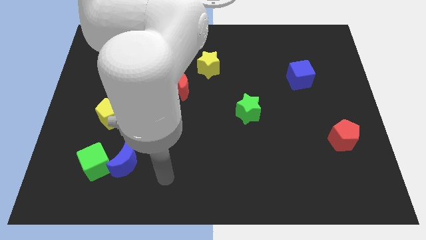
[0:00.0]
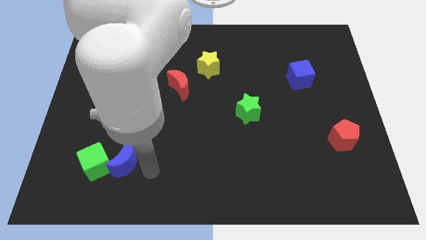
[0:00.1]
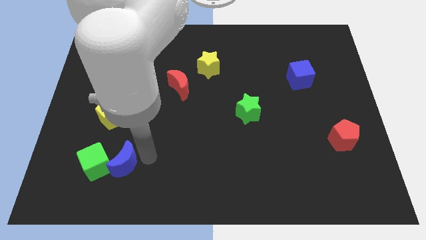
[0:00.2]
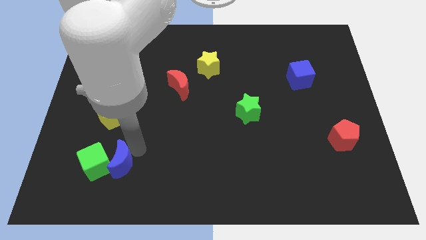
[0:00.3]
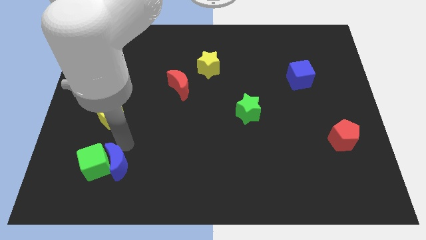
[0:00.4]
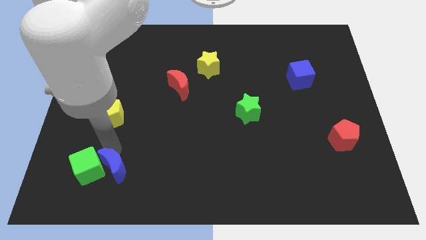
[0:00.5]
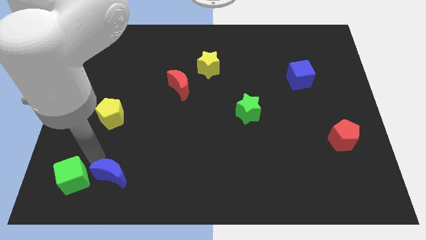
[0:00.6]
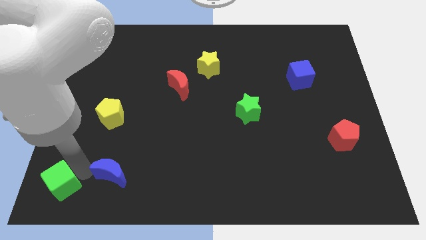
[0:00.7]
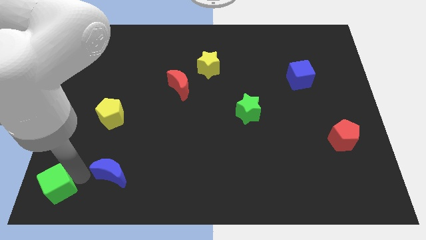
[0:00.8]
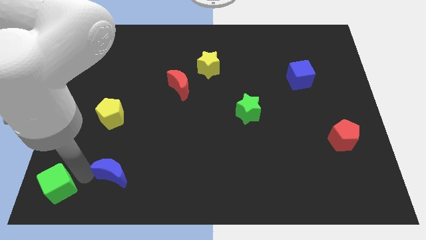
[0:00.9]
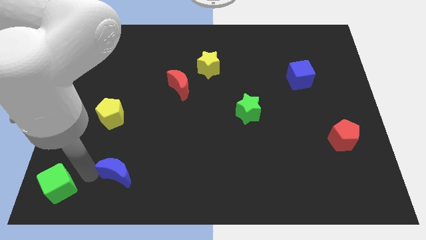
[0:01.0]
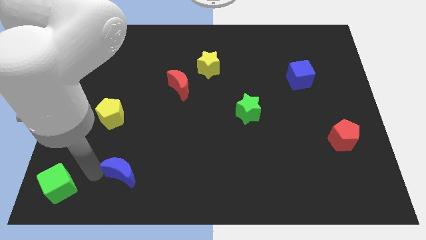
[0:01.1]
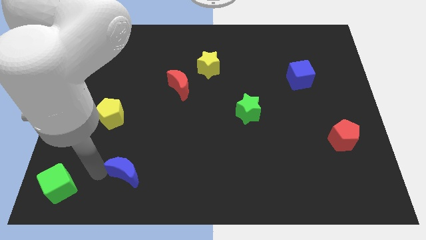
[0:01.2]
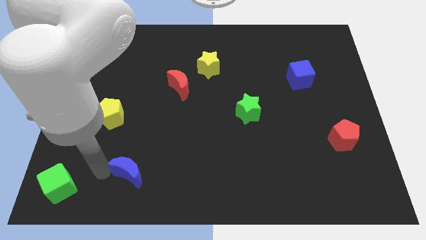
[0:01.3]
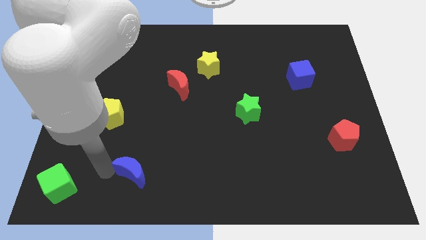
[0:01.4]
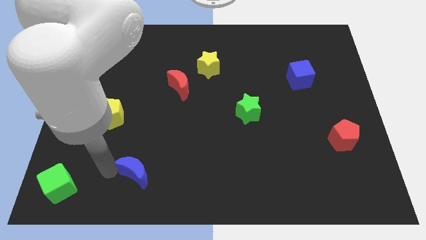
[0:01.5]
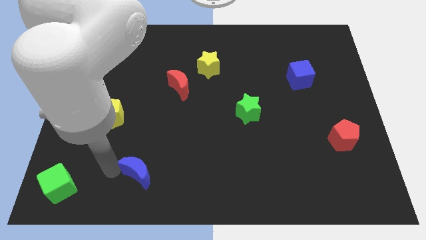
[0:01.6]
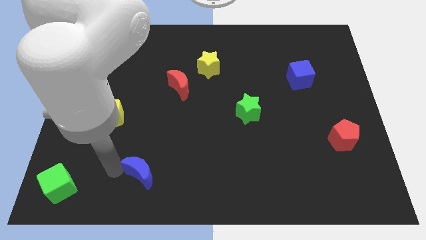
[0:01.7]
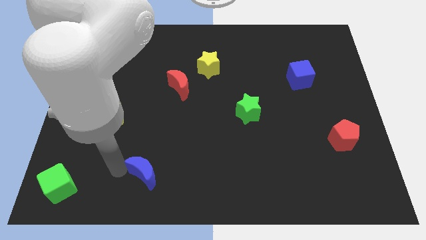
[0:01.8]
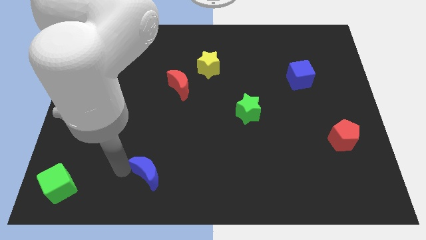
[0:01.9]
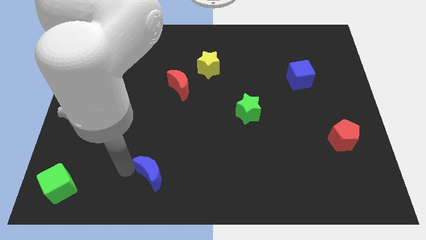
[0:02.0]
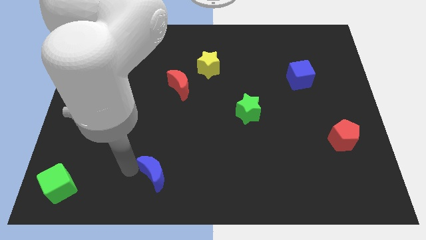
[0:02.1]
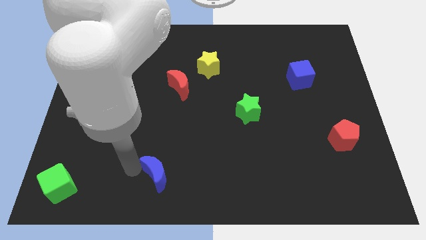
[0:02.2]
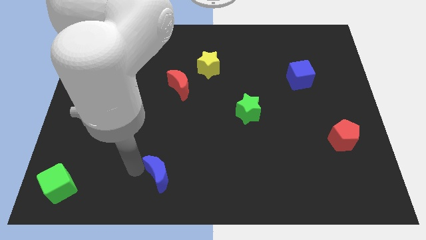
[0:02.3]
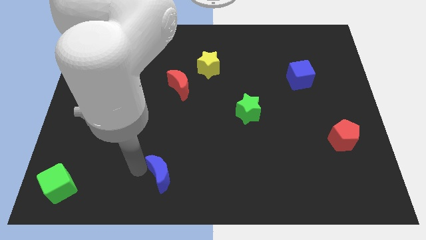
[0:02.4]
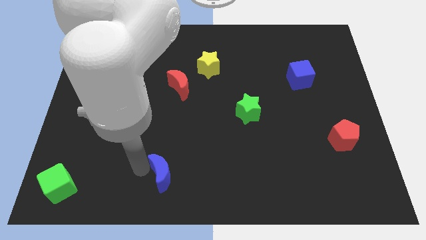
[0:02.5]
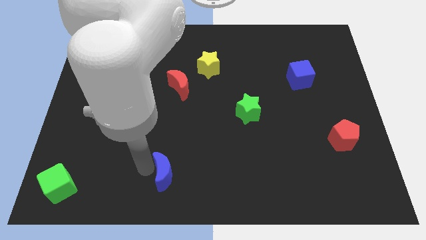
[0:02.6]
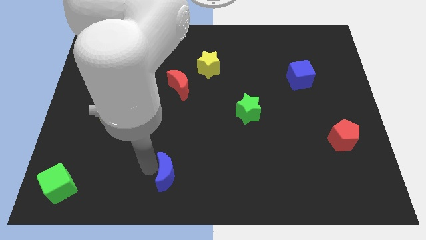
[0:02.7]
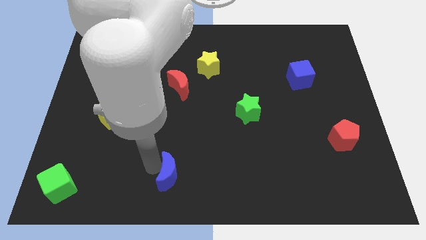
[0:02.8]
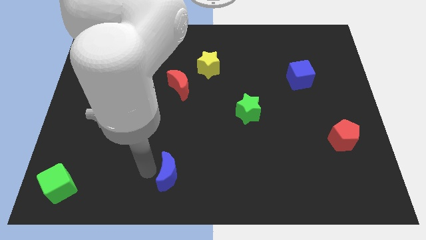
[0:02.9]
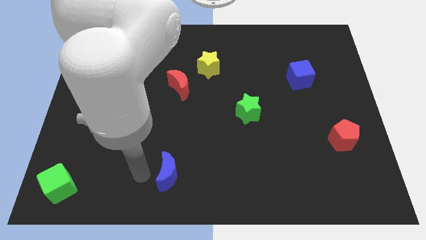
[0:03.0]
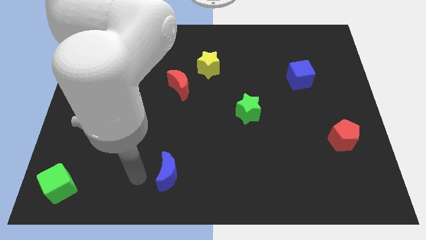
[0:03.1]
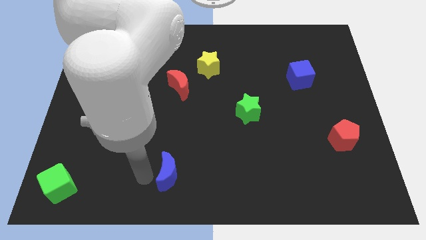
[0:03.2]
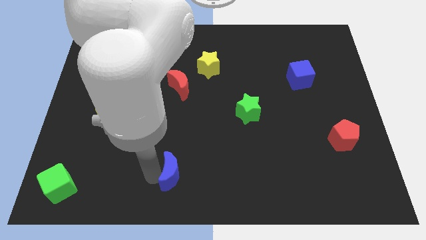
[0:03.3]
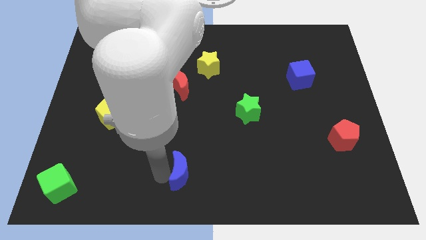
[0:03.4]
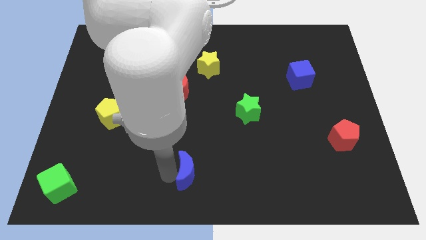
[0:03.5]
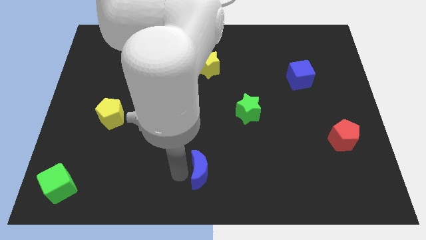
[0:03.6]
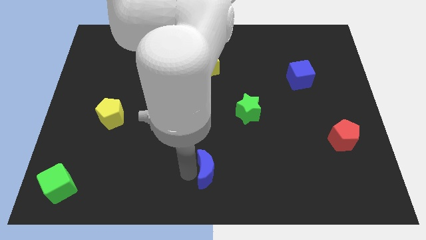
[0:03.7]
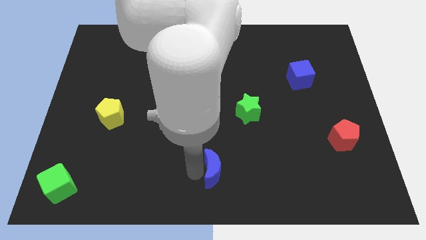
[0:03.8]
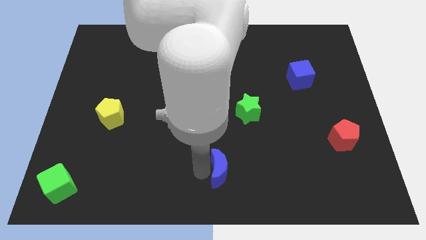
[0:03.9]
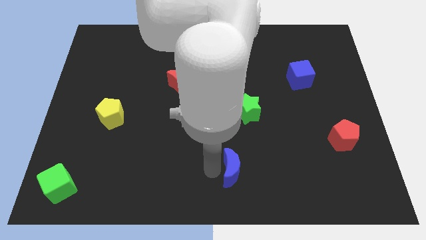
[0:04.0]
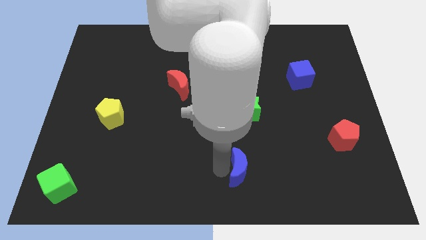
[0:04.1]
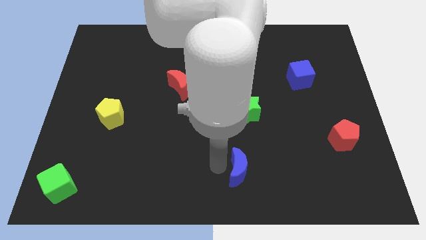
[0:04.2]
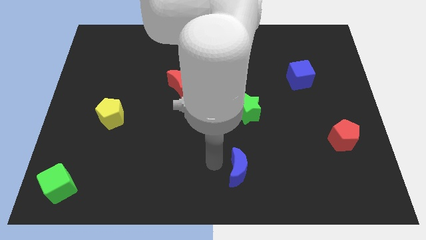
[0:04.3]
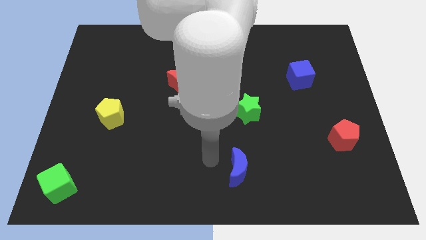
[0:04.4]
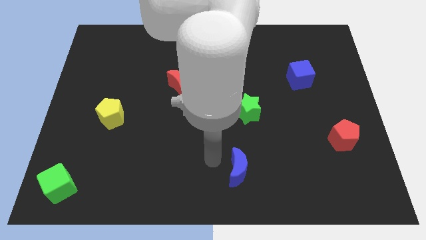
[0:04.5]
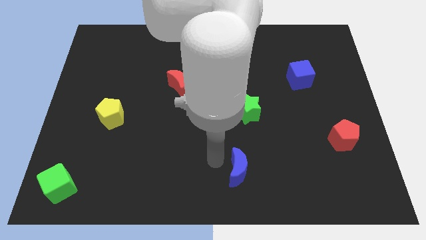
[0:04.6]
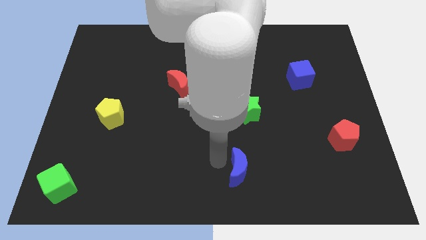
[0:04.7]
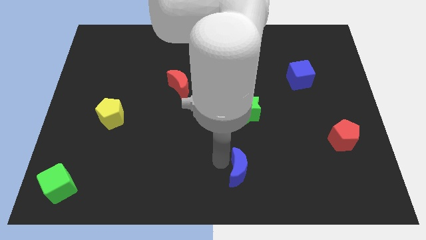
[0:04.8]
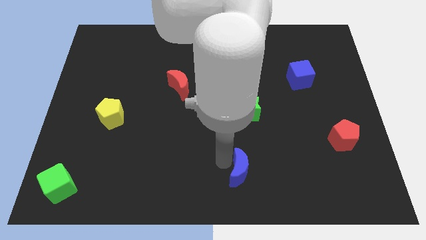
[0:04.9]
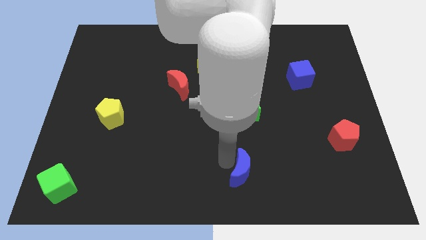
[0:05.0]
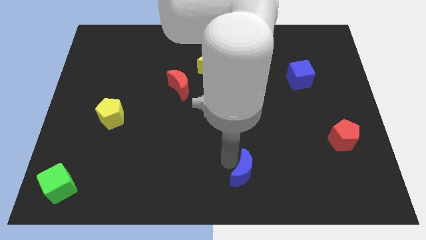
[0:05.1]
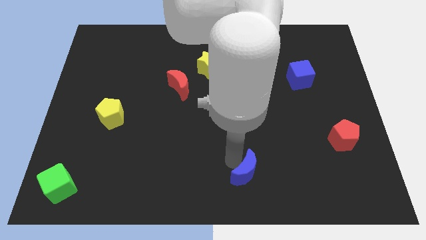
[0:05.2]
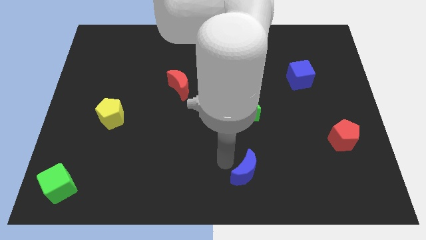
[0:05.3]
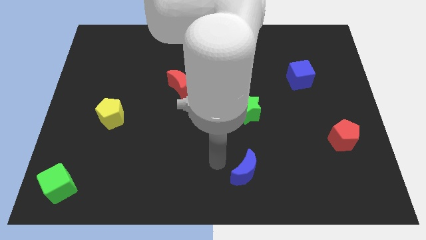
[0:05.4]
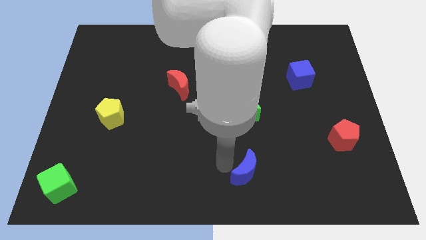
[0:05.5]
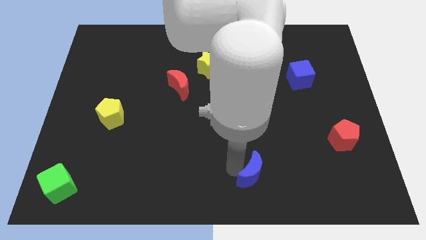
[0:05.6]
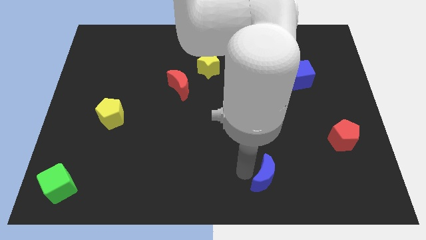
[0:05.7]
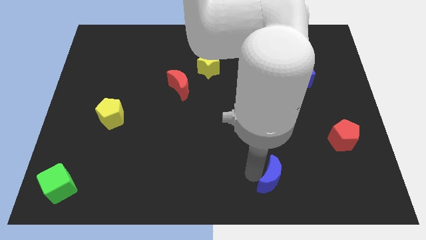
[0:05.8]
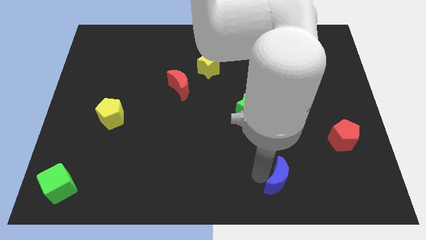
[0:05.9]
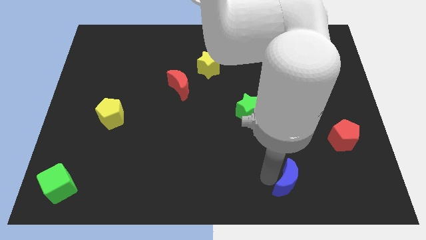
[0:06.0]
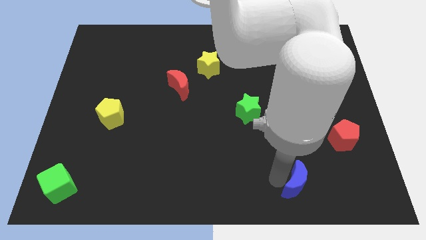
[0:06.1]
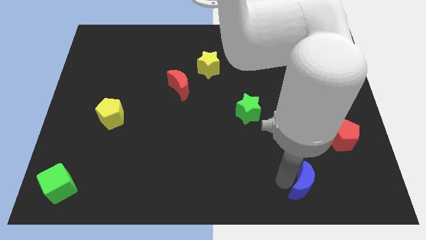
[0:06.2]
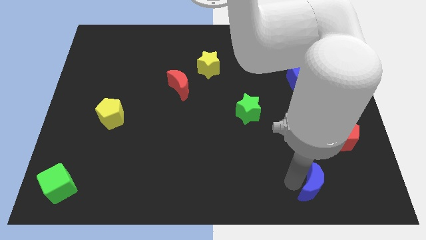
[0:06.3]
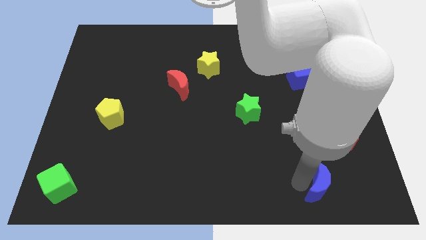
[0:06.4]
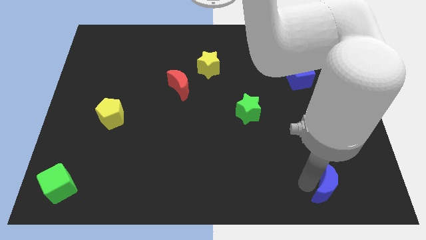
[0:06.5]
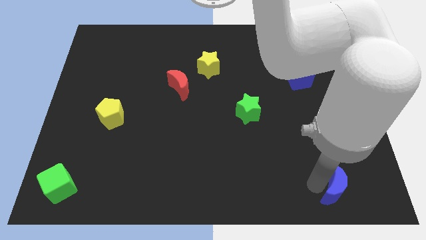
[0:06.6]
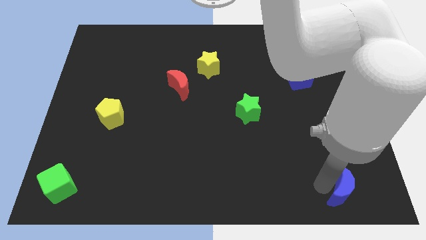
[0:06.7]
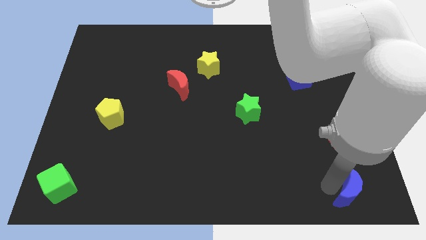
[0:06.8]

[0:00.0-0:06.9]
slide the blue moon to the bottom right of the board
